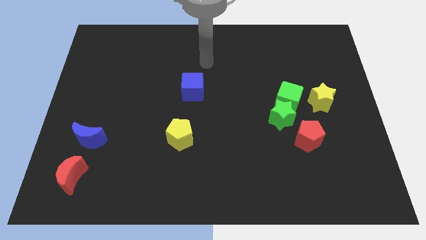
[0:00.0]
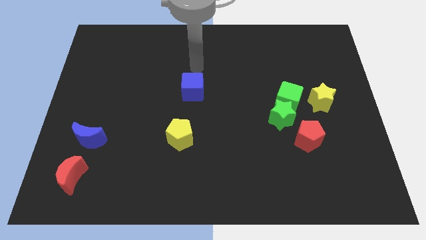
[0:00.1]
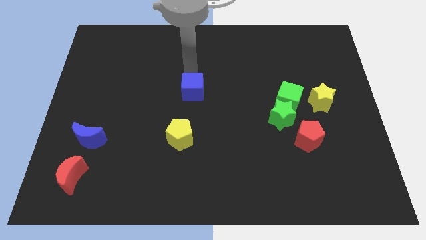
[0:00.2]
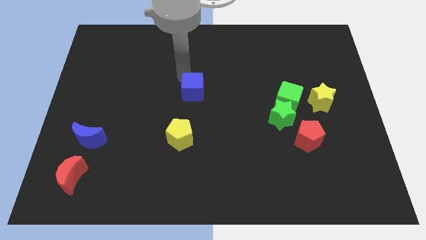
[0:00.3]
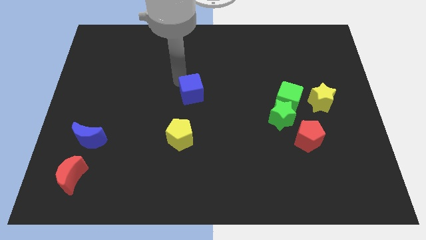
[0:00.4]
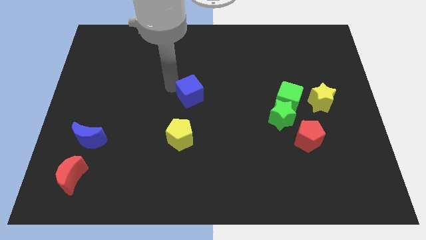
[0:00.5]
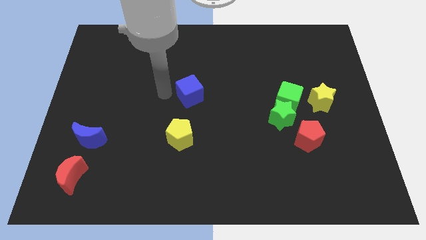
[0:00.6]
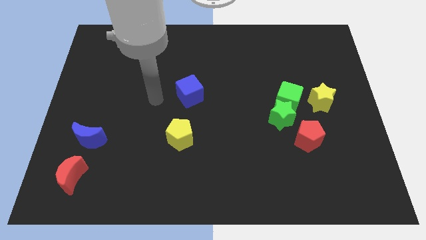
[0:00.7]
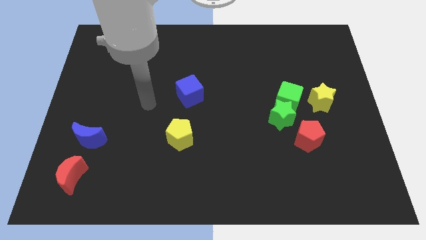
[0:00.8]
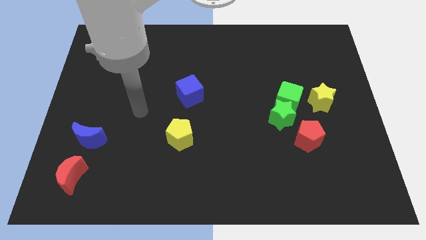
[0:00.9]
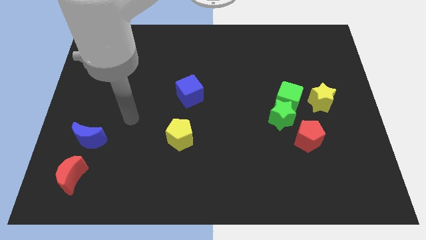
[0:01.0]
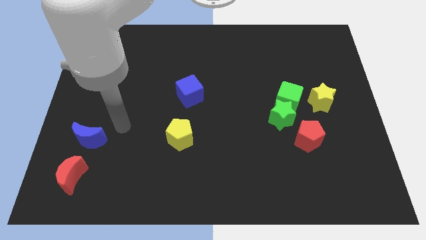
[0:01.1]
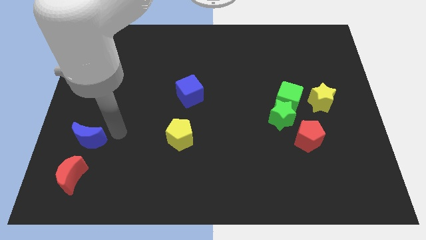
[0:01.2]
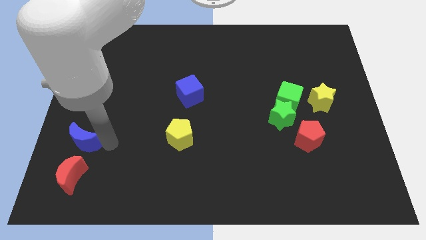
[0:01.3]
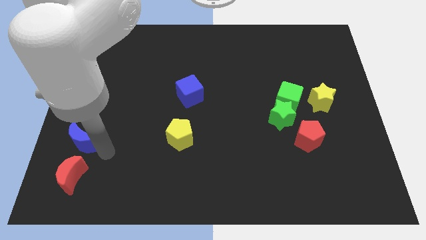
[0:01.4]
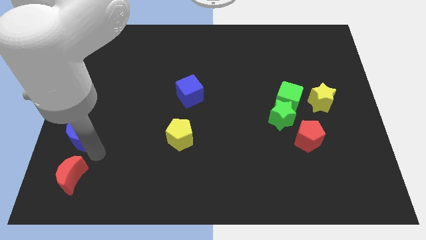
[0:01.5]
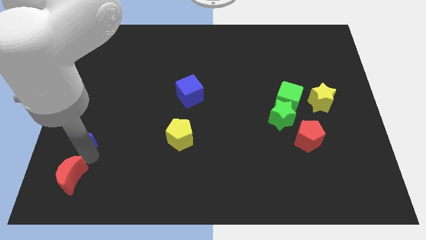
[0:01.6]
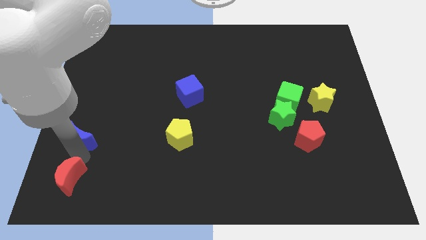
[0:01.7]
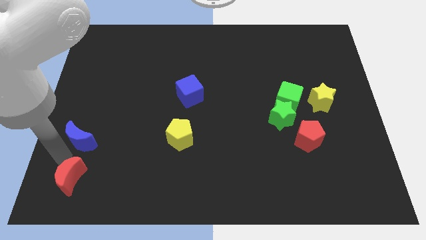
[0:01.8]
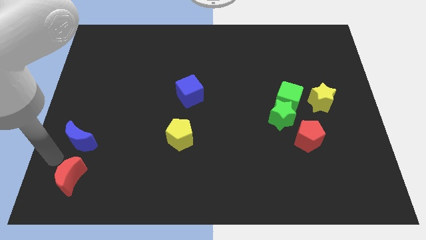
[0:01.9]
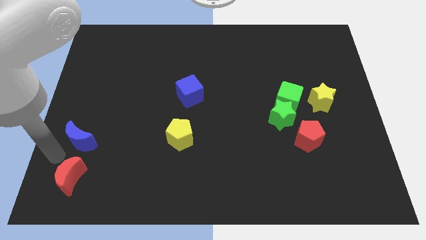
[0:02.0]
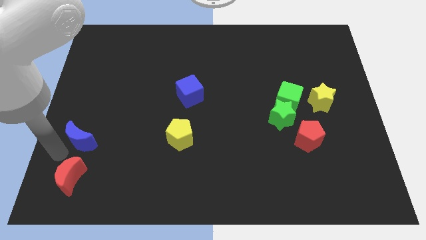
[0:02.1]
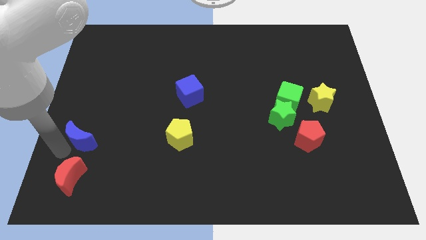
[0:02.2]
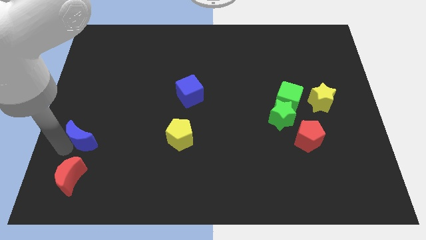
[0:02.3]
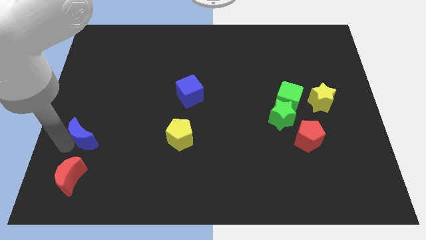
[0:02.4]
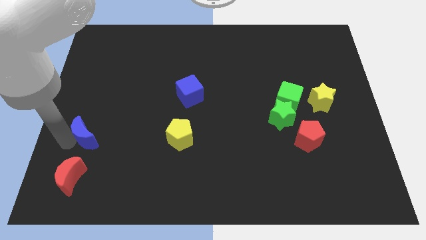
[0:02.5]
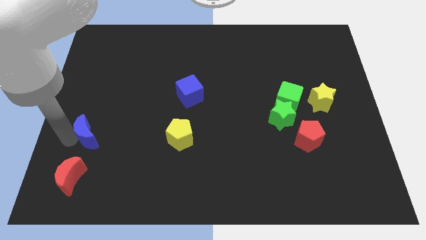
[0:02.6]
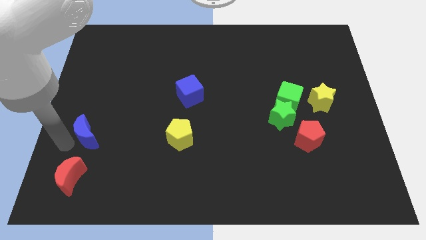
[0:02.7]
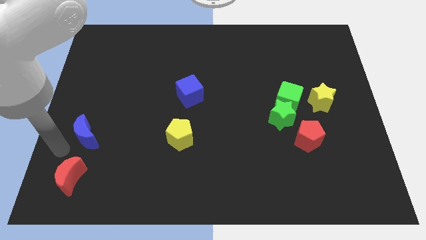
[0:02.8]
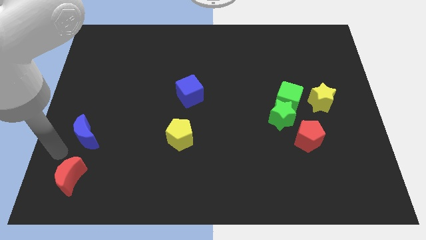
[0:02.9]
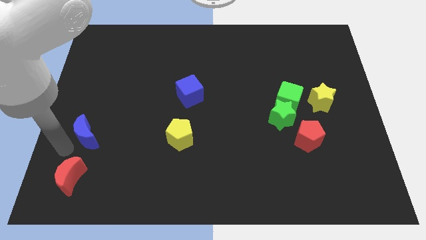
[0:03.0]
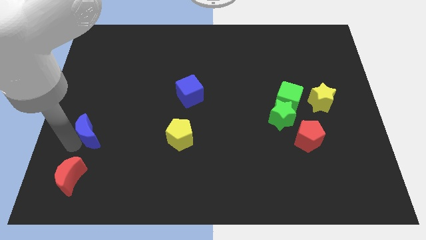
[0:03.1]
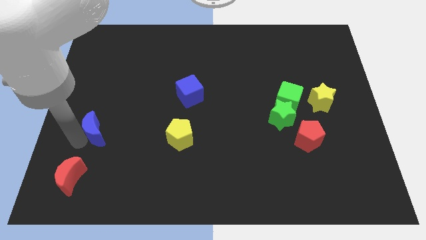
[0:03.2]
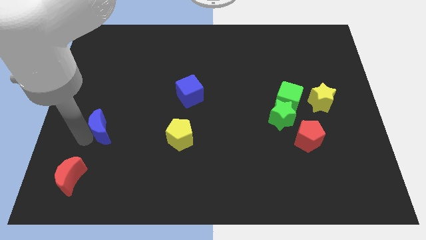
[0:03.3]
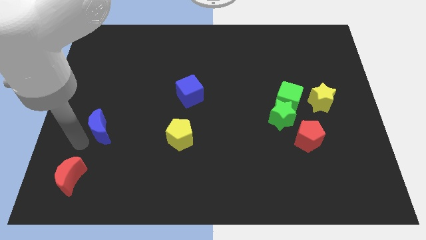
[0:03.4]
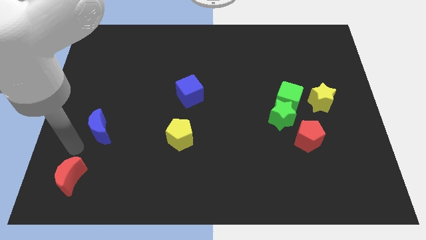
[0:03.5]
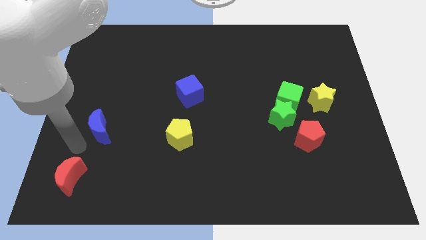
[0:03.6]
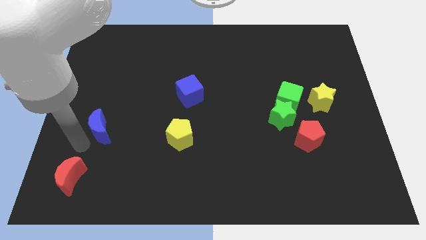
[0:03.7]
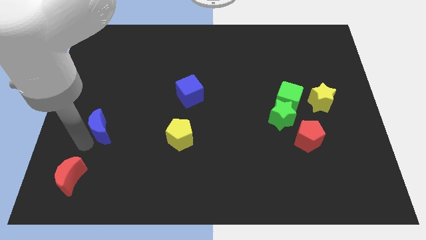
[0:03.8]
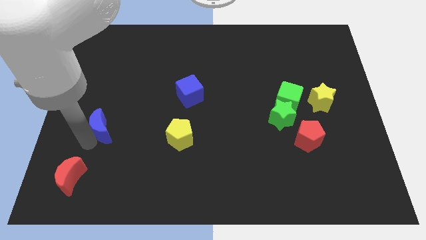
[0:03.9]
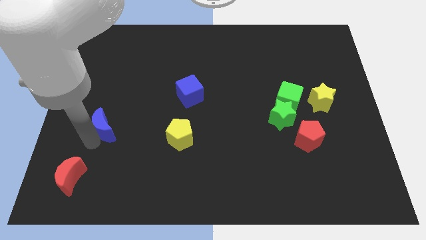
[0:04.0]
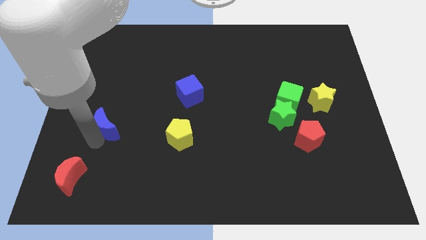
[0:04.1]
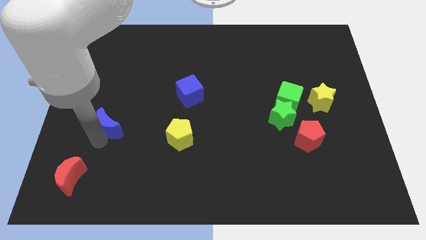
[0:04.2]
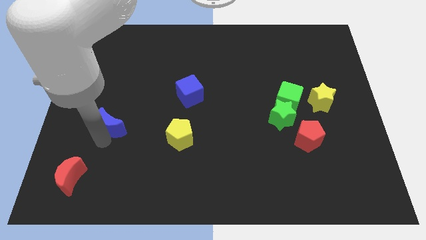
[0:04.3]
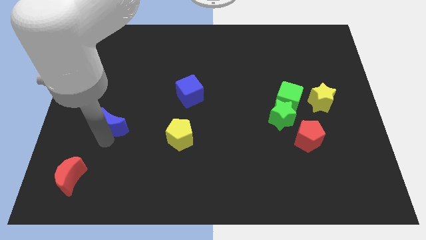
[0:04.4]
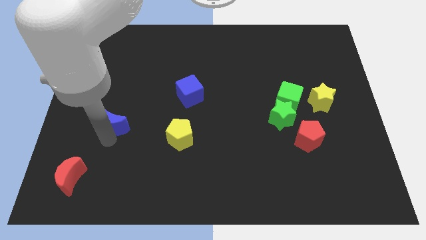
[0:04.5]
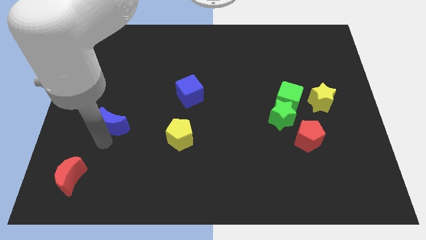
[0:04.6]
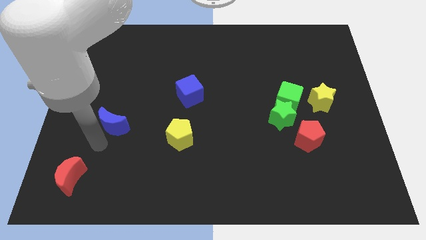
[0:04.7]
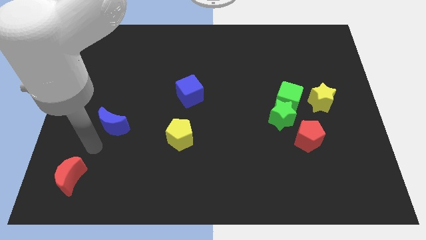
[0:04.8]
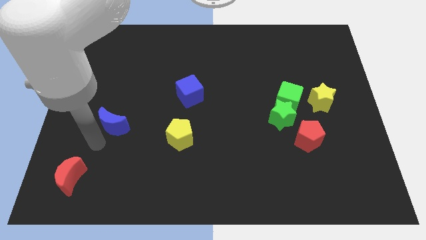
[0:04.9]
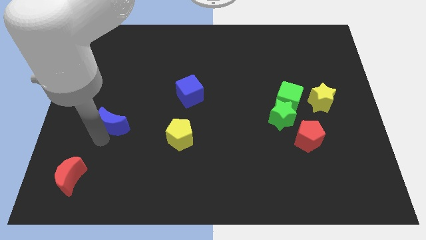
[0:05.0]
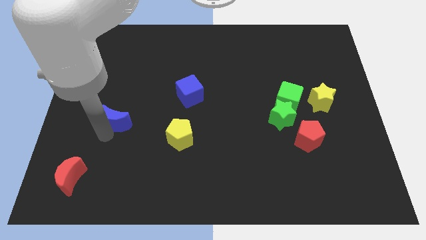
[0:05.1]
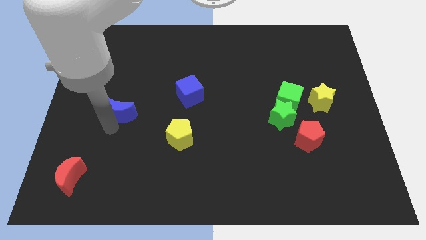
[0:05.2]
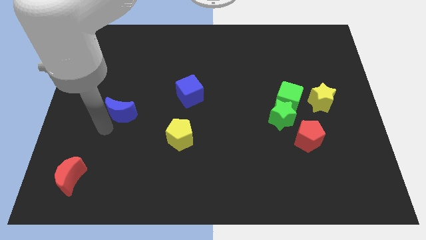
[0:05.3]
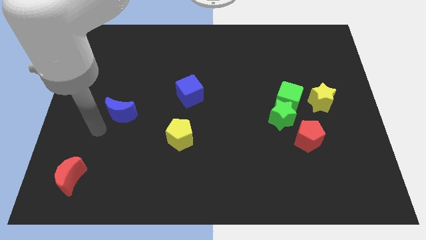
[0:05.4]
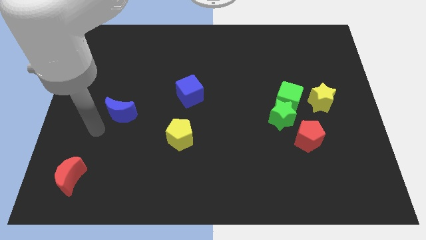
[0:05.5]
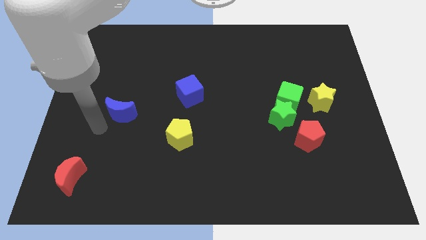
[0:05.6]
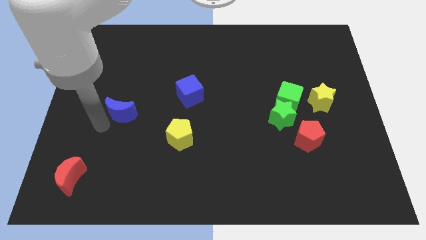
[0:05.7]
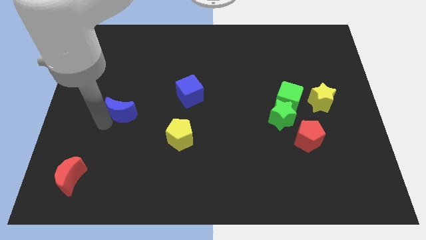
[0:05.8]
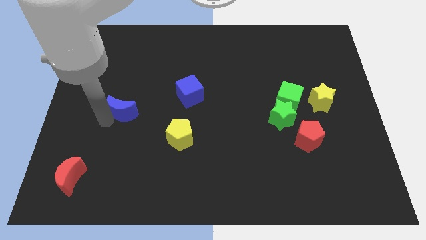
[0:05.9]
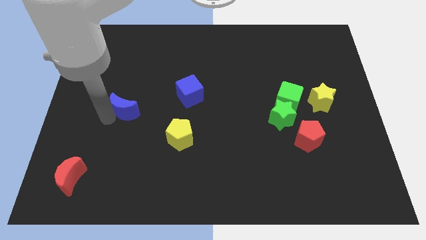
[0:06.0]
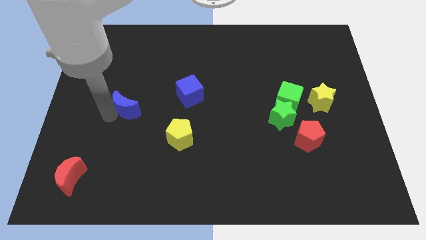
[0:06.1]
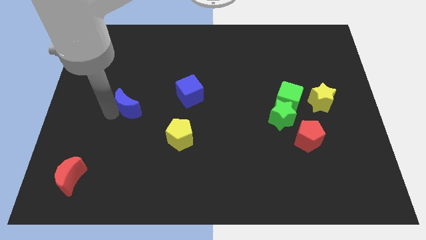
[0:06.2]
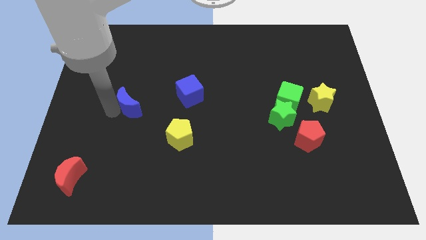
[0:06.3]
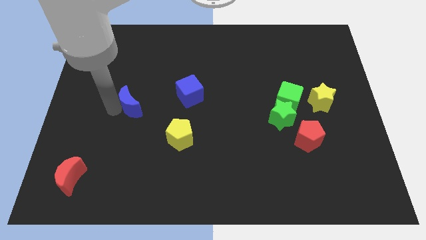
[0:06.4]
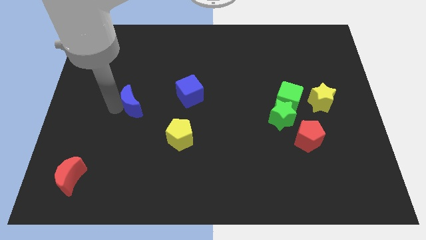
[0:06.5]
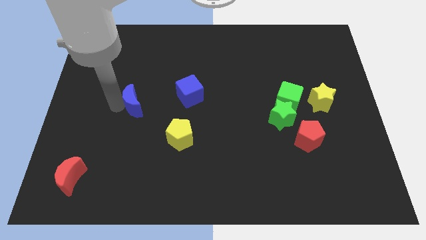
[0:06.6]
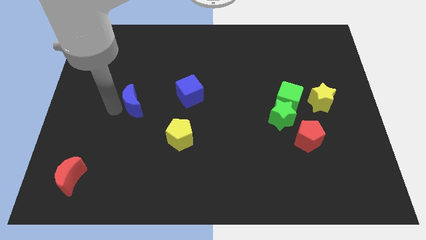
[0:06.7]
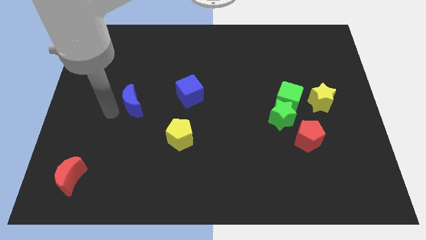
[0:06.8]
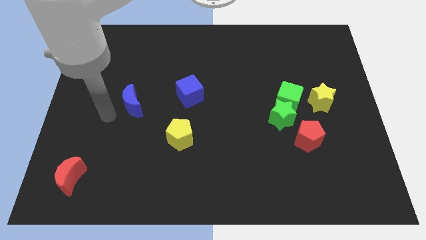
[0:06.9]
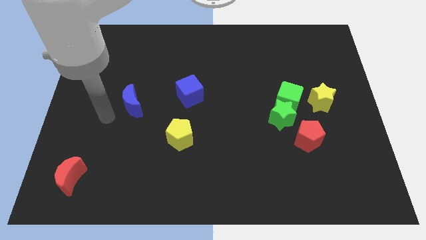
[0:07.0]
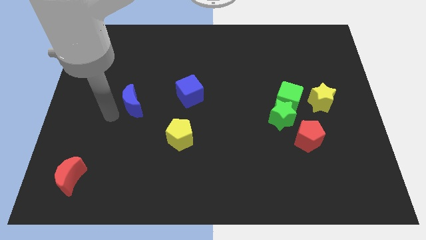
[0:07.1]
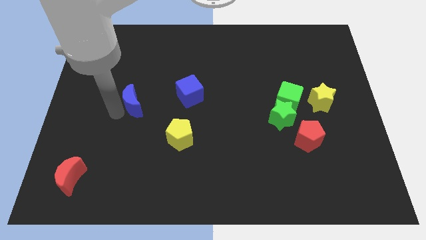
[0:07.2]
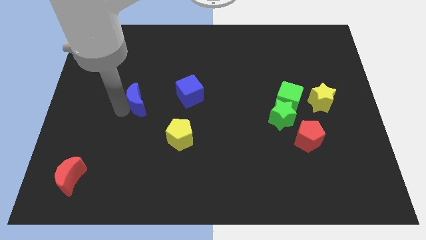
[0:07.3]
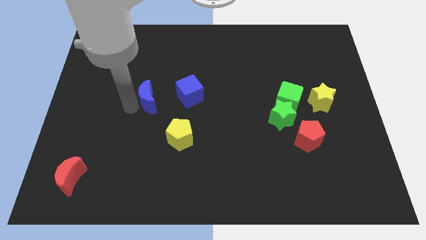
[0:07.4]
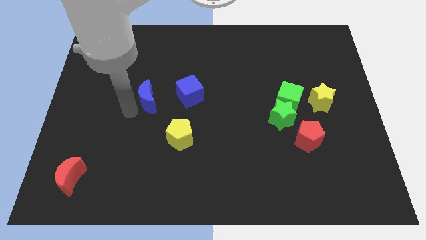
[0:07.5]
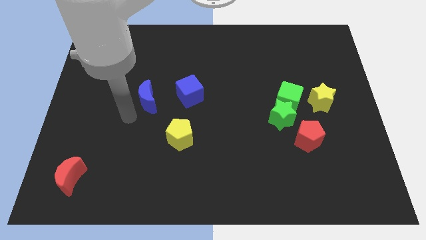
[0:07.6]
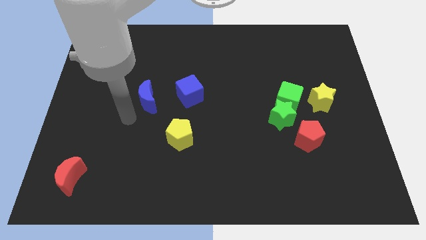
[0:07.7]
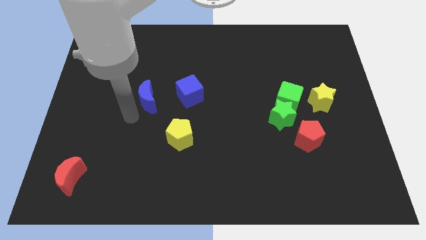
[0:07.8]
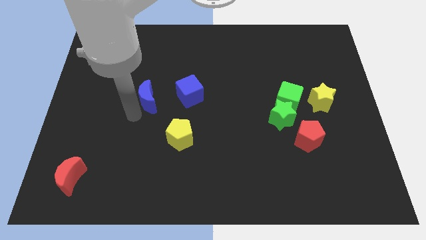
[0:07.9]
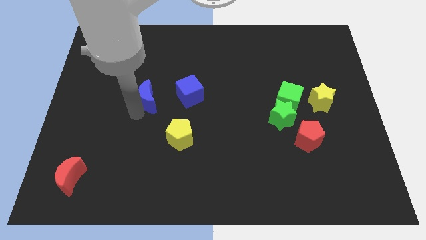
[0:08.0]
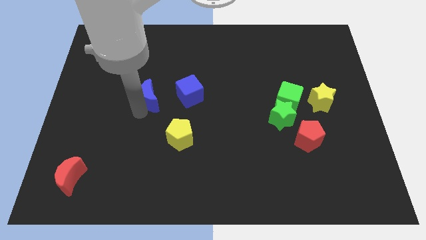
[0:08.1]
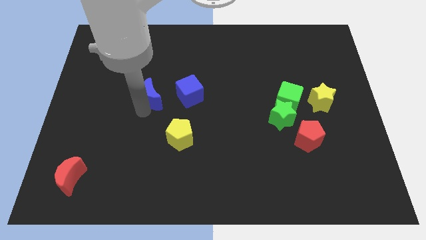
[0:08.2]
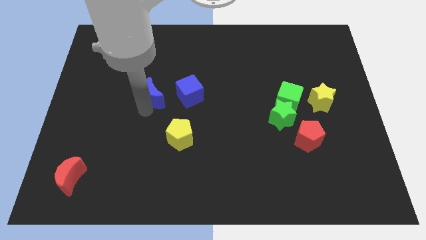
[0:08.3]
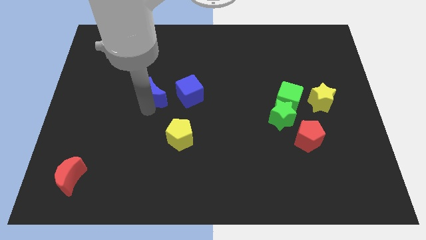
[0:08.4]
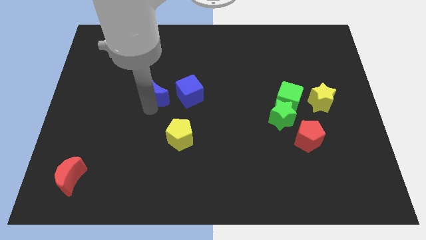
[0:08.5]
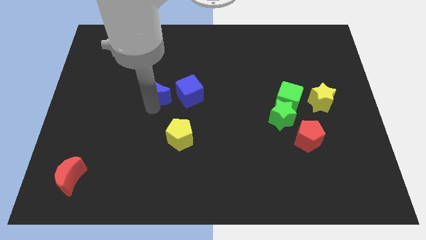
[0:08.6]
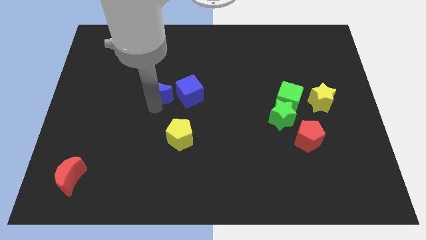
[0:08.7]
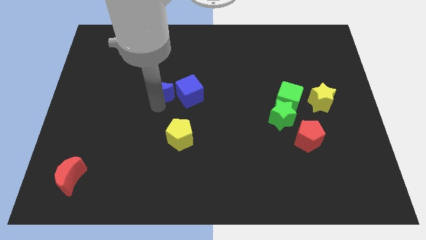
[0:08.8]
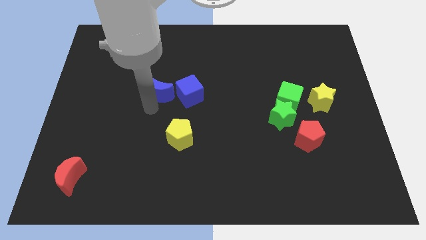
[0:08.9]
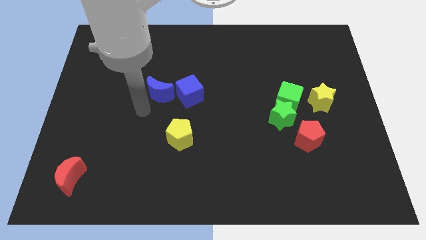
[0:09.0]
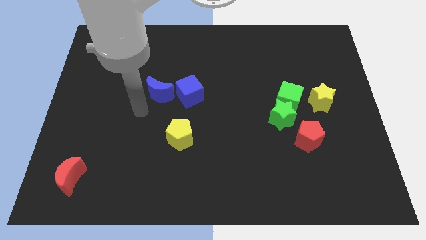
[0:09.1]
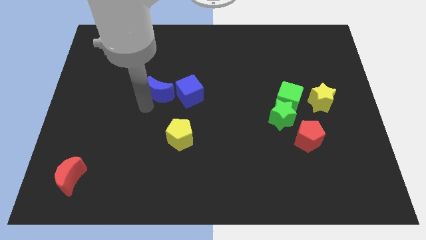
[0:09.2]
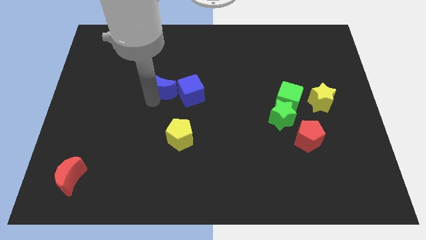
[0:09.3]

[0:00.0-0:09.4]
move the blue moon upwards and right
